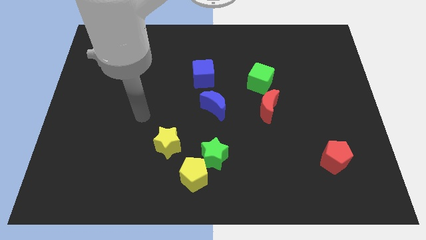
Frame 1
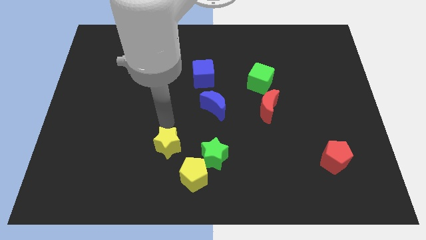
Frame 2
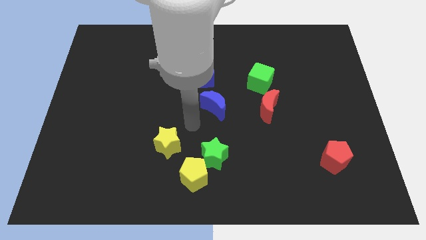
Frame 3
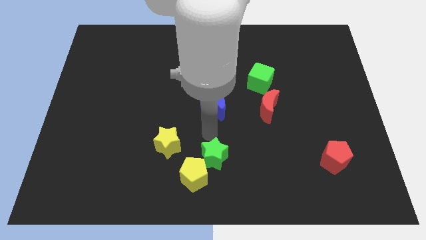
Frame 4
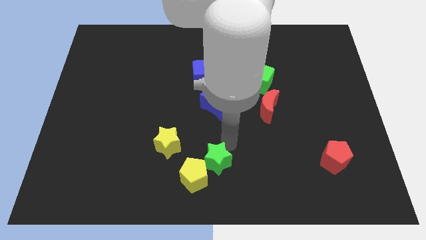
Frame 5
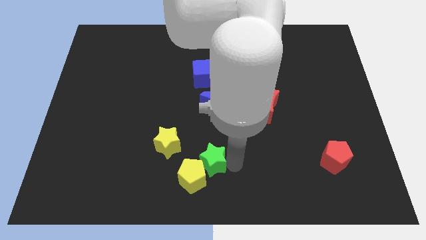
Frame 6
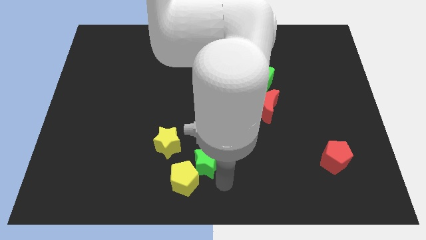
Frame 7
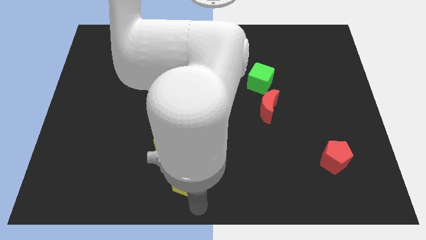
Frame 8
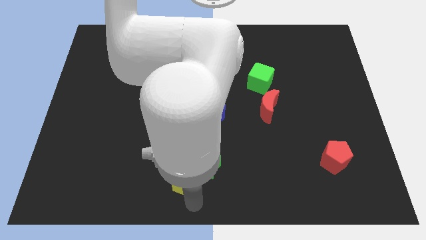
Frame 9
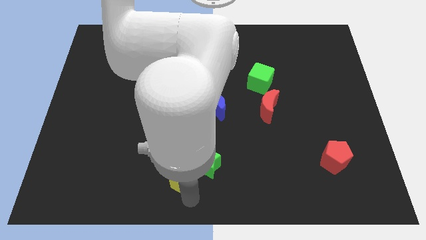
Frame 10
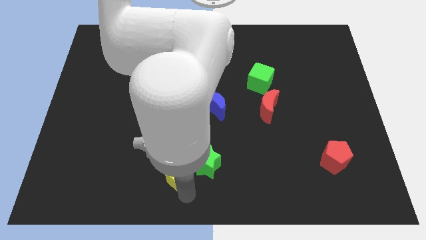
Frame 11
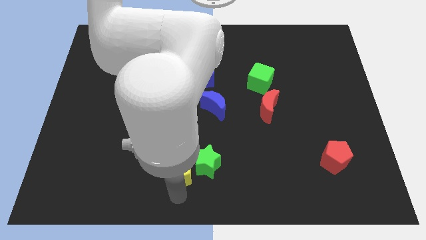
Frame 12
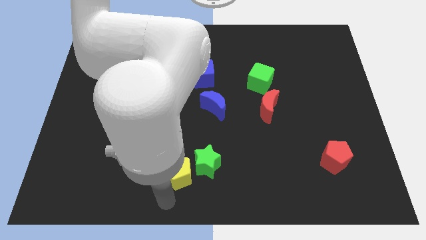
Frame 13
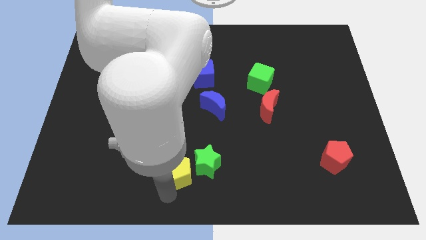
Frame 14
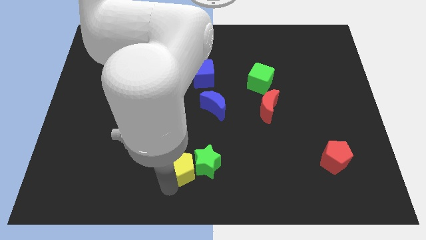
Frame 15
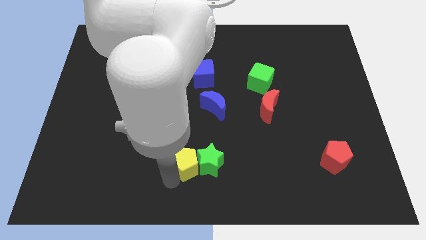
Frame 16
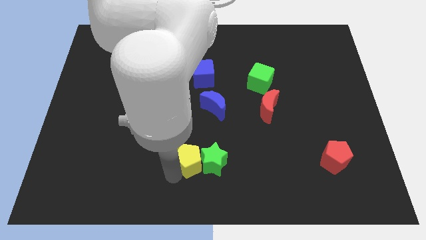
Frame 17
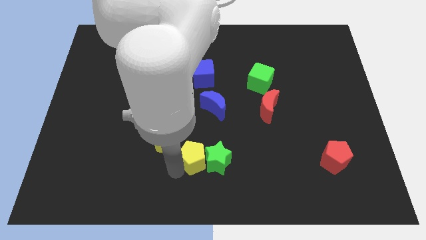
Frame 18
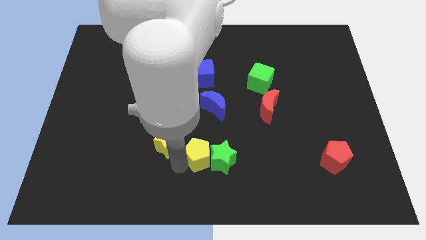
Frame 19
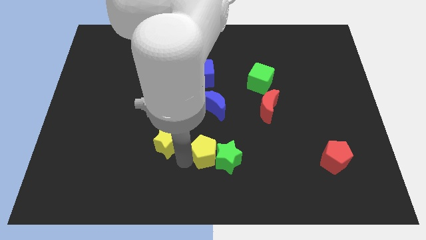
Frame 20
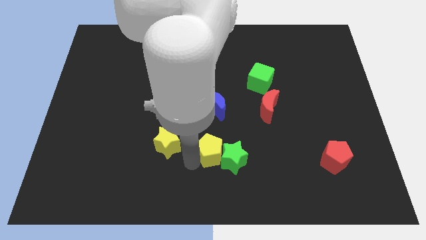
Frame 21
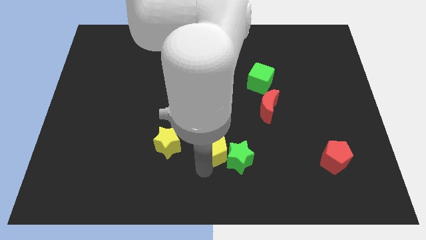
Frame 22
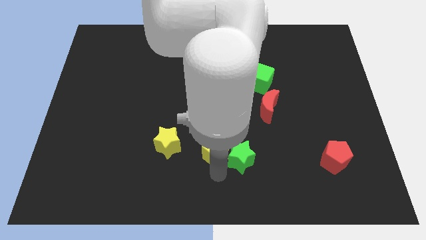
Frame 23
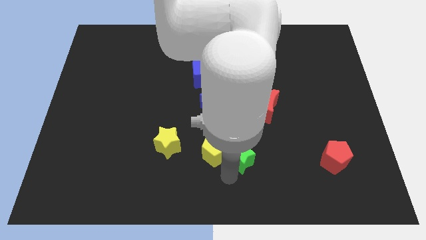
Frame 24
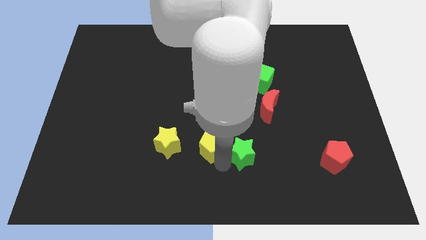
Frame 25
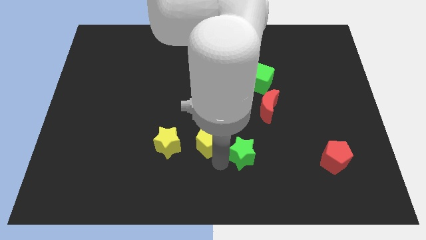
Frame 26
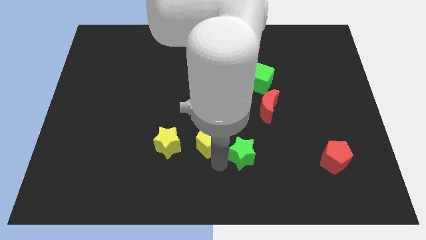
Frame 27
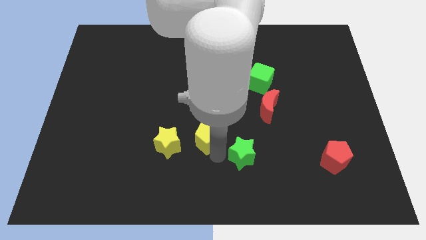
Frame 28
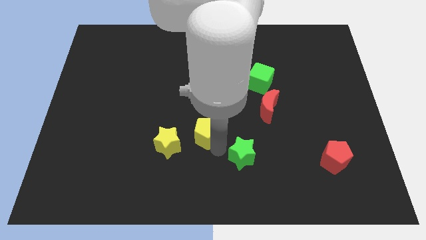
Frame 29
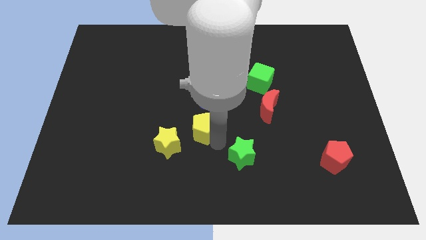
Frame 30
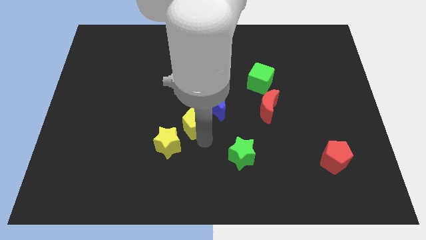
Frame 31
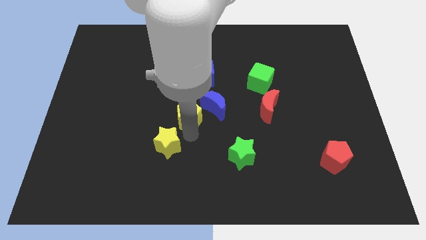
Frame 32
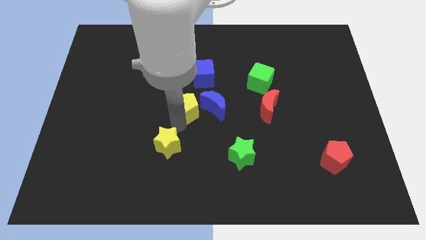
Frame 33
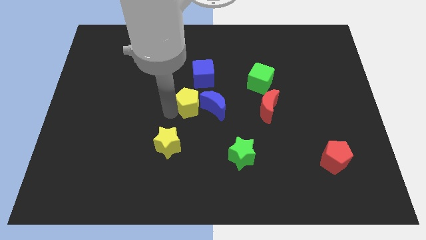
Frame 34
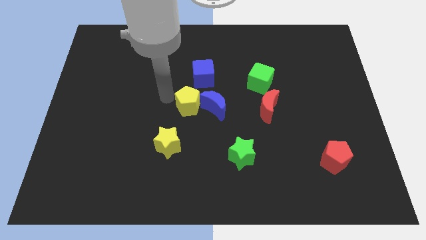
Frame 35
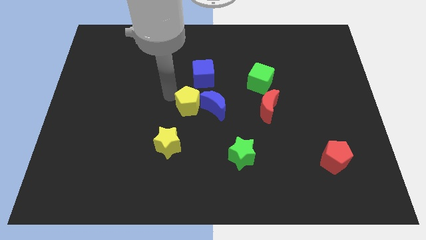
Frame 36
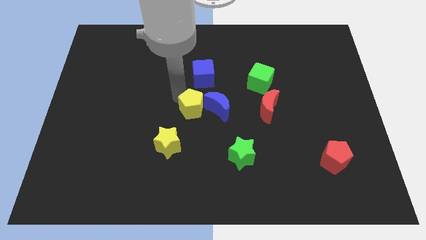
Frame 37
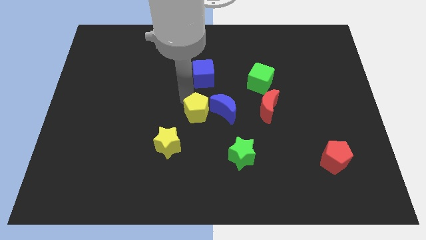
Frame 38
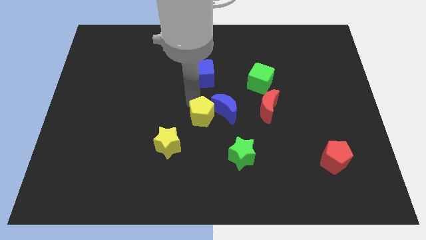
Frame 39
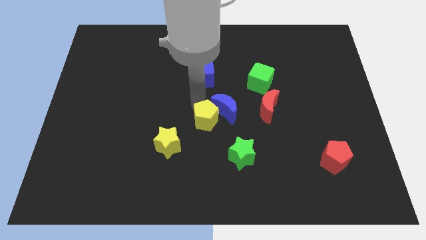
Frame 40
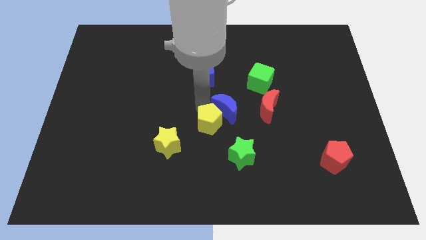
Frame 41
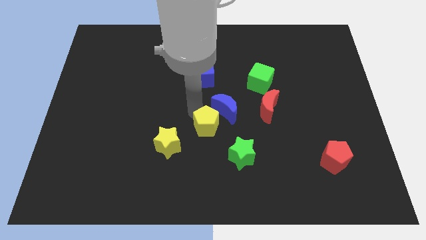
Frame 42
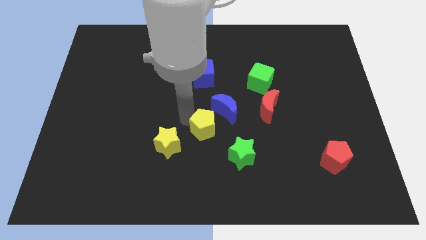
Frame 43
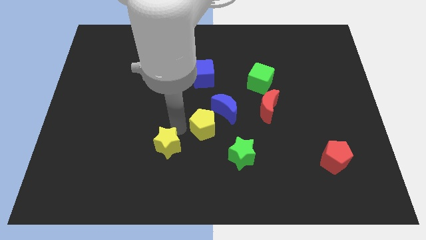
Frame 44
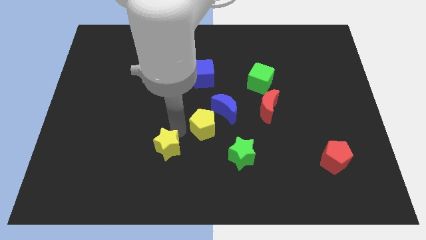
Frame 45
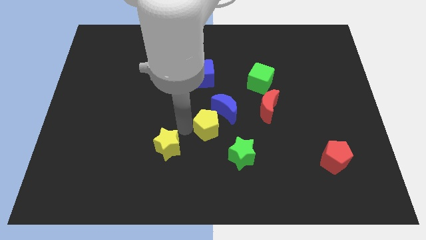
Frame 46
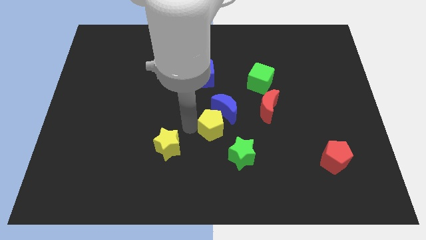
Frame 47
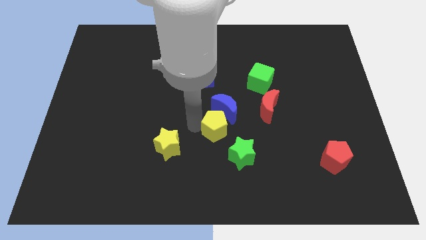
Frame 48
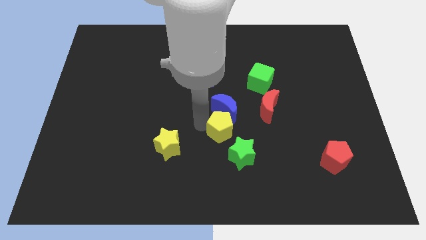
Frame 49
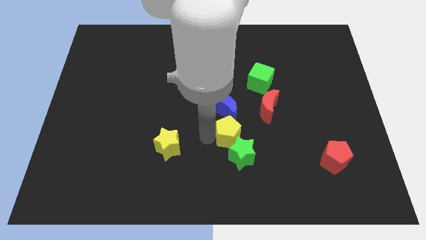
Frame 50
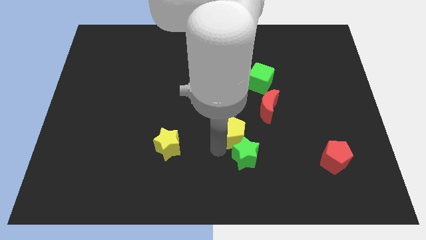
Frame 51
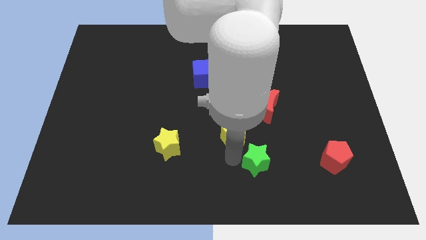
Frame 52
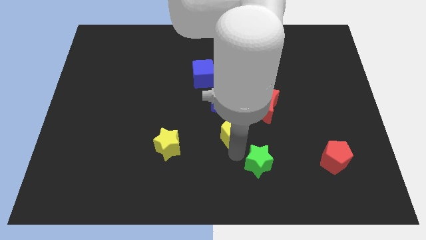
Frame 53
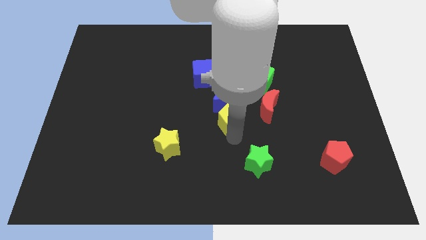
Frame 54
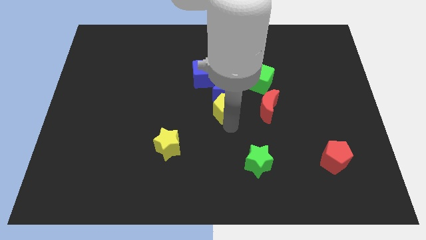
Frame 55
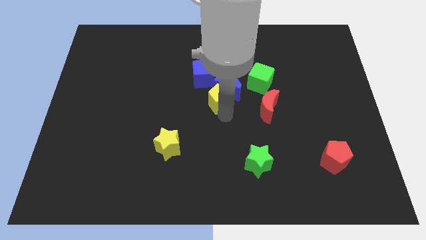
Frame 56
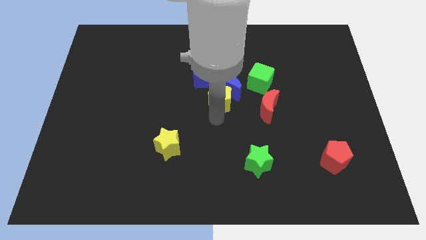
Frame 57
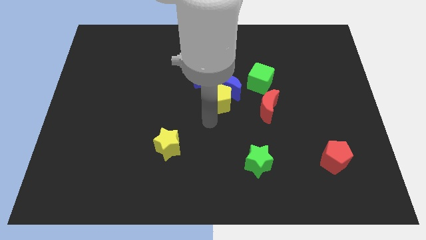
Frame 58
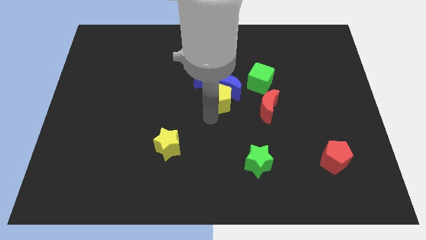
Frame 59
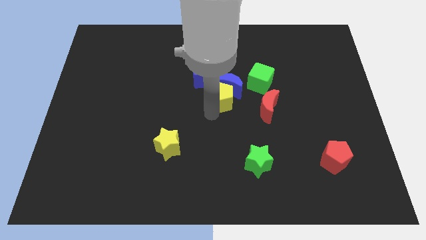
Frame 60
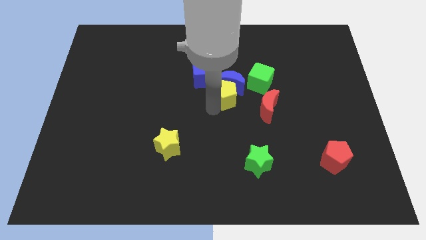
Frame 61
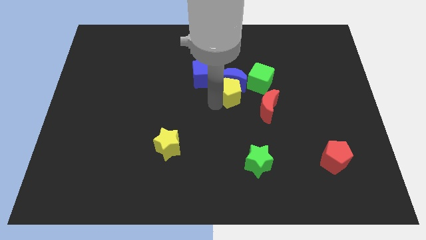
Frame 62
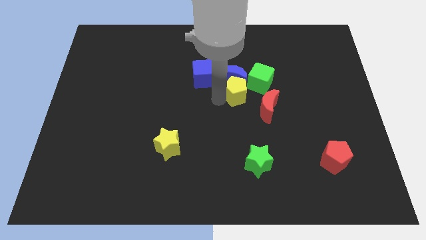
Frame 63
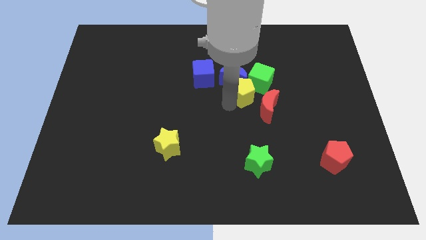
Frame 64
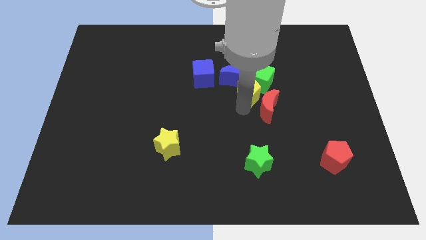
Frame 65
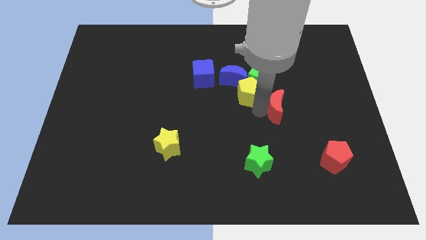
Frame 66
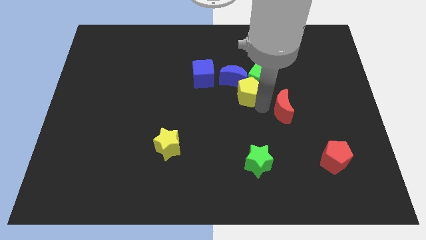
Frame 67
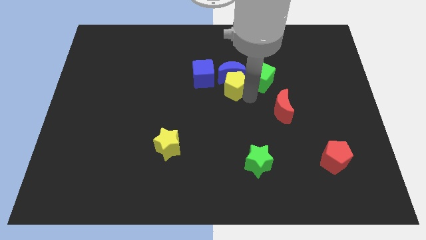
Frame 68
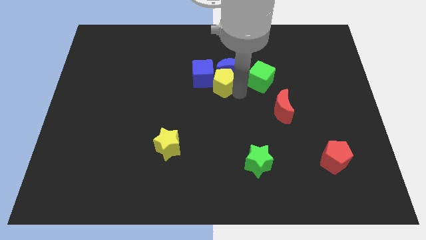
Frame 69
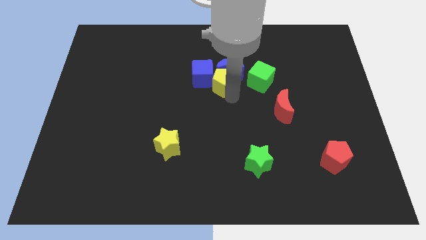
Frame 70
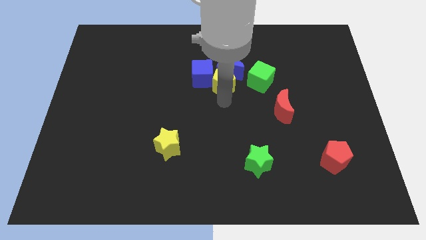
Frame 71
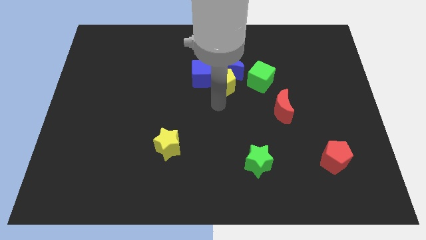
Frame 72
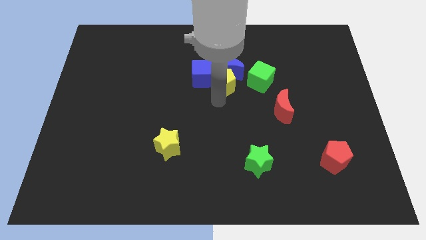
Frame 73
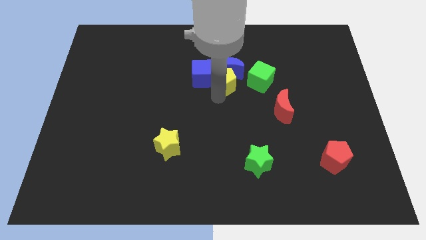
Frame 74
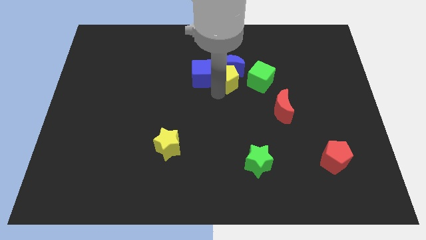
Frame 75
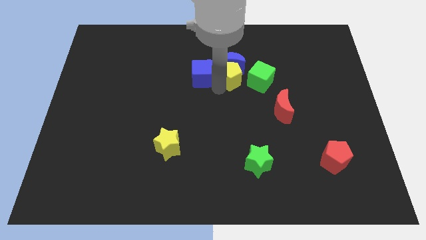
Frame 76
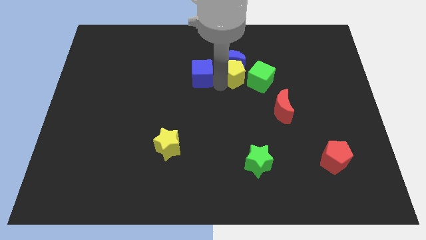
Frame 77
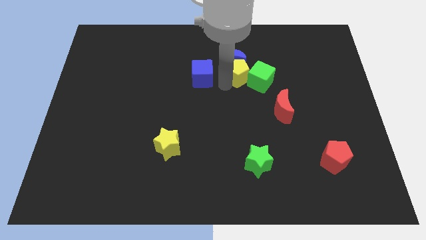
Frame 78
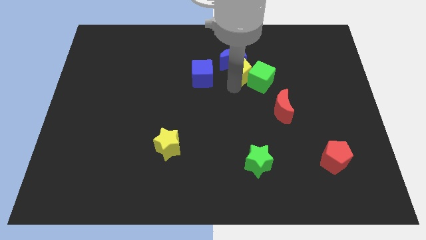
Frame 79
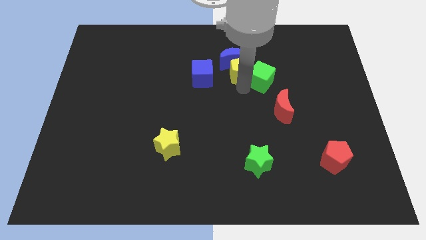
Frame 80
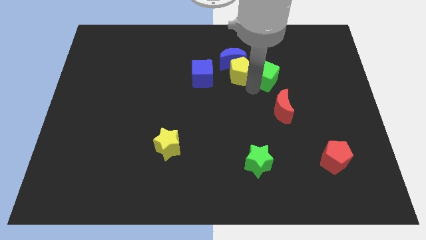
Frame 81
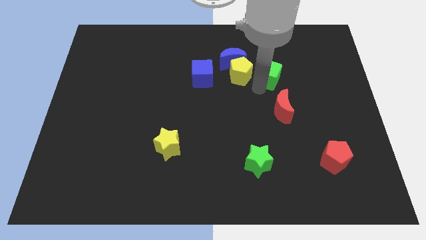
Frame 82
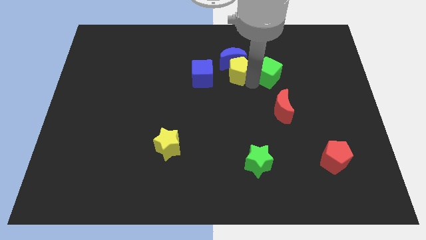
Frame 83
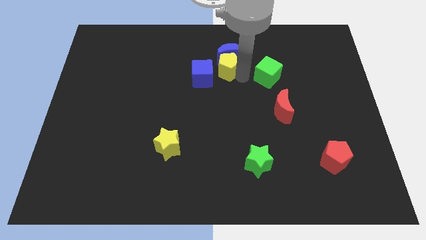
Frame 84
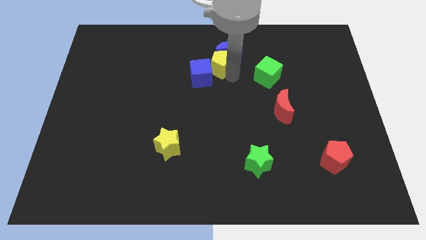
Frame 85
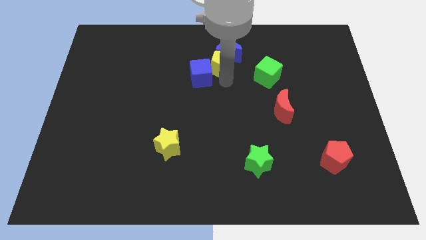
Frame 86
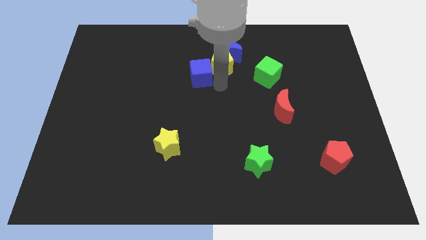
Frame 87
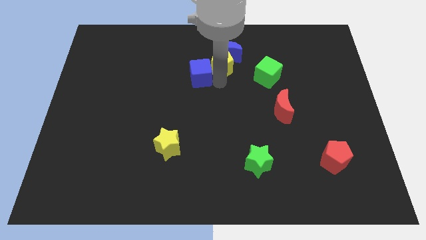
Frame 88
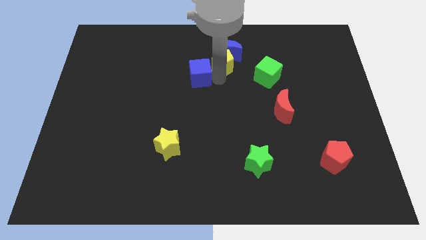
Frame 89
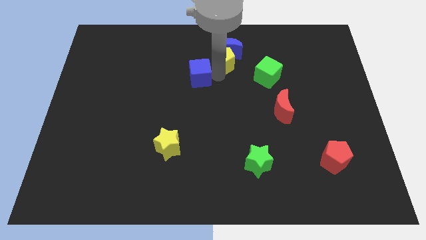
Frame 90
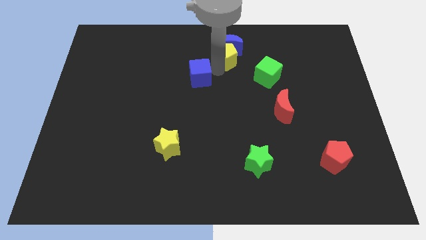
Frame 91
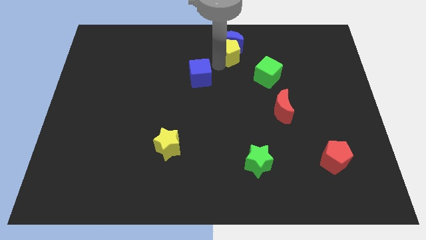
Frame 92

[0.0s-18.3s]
push the yellow pentagon to the top
